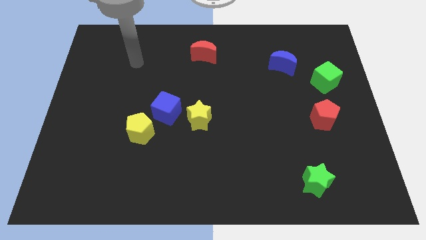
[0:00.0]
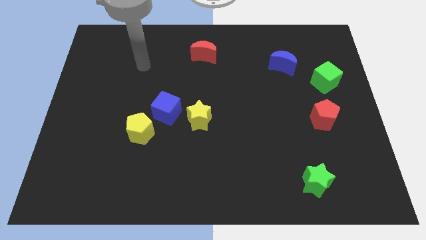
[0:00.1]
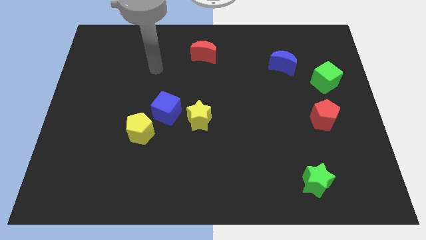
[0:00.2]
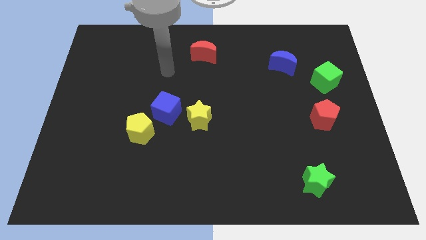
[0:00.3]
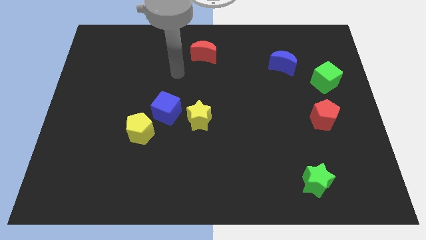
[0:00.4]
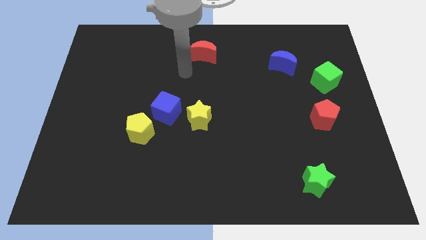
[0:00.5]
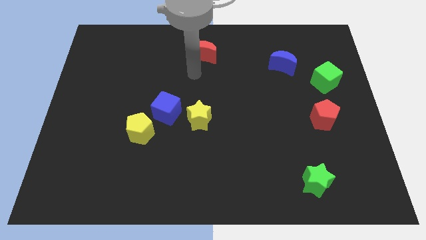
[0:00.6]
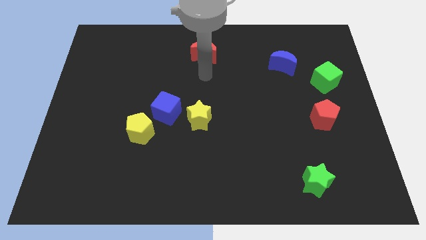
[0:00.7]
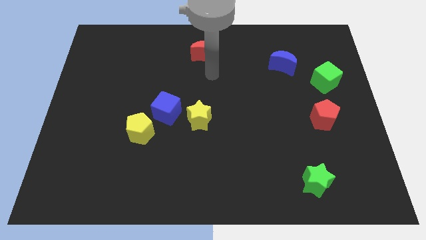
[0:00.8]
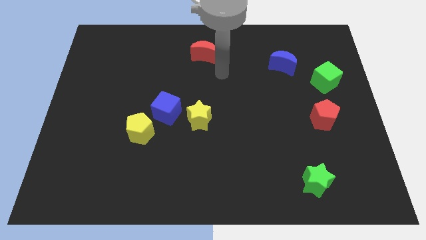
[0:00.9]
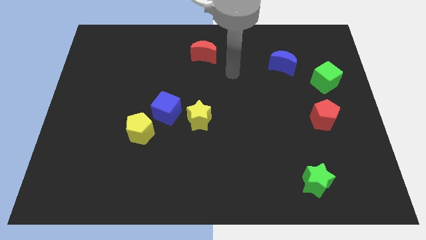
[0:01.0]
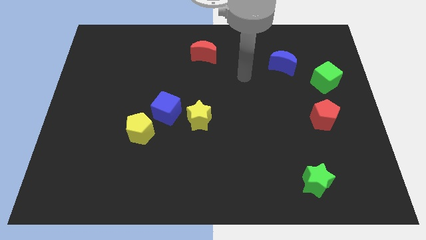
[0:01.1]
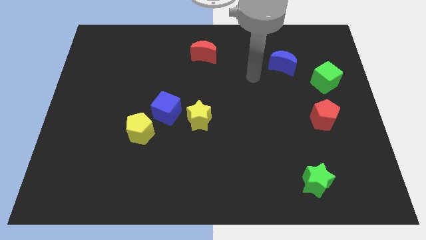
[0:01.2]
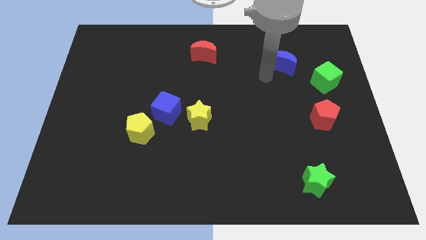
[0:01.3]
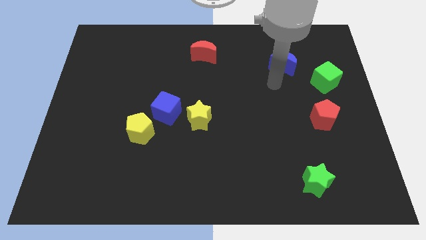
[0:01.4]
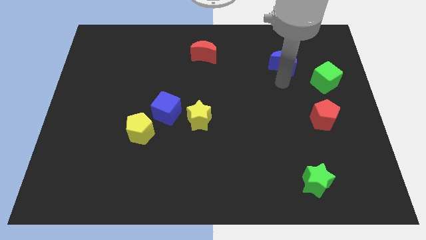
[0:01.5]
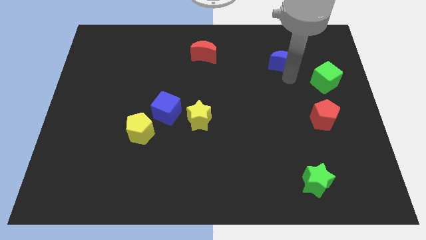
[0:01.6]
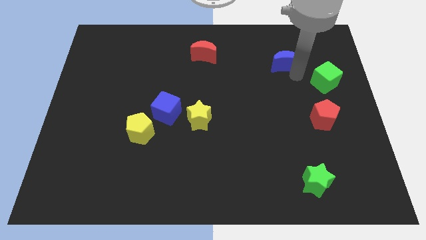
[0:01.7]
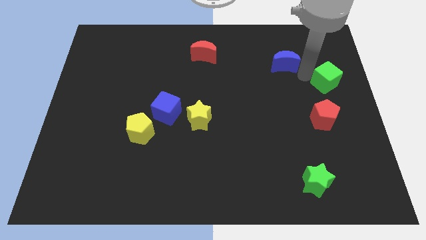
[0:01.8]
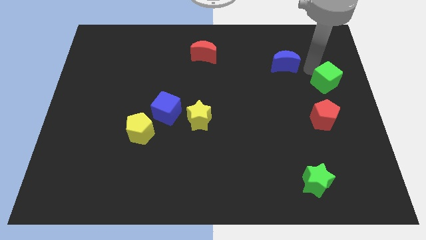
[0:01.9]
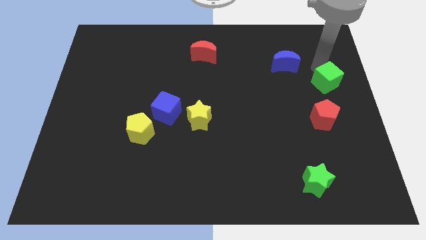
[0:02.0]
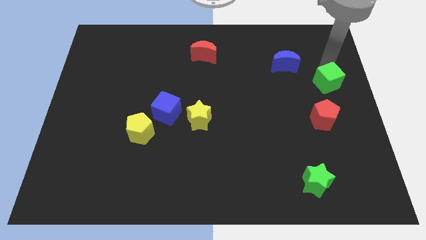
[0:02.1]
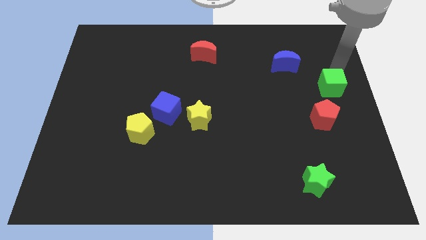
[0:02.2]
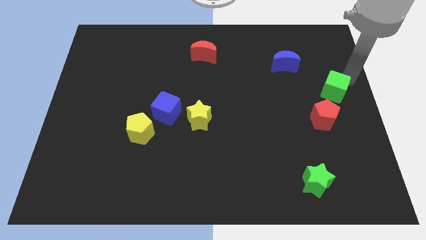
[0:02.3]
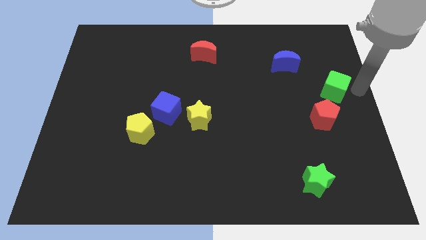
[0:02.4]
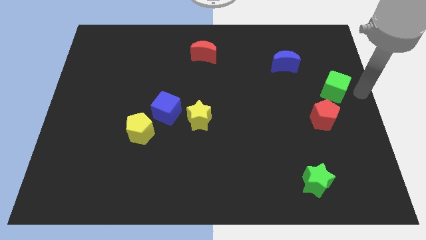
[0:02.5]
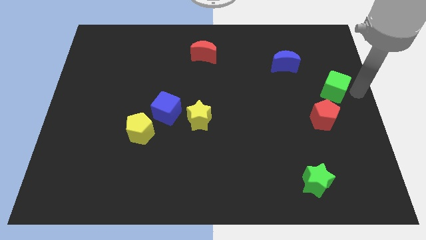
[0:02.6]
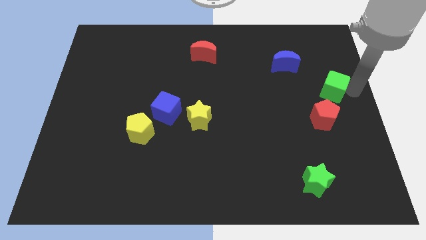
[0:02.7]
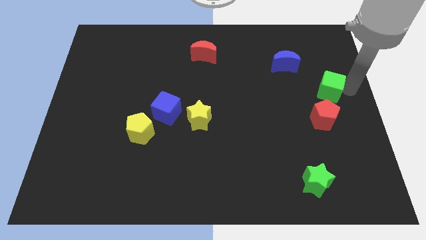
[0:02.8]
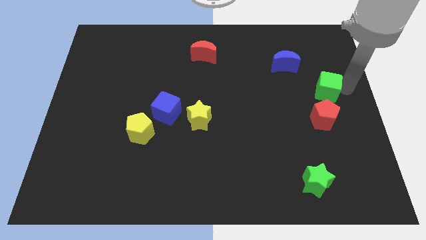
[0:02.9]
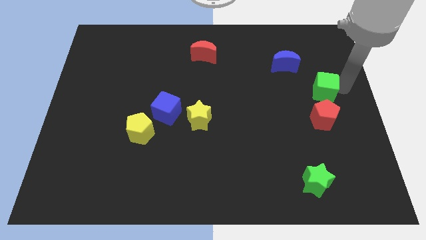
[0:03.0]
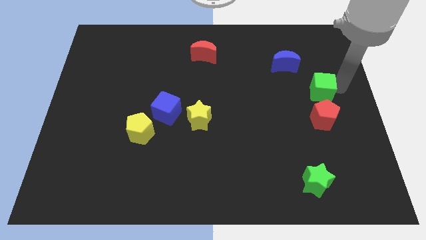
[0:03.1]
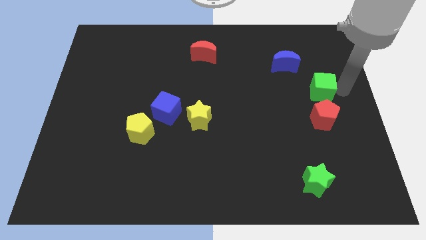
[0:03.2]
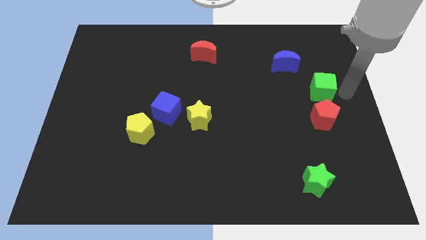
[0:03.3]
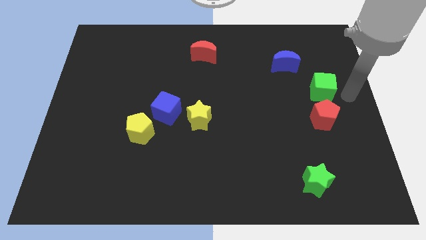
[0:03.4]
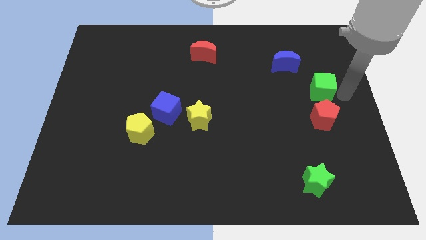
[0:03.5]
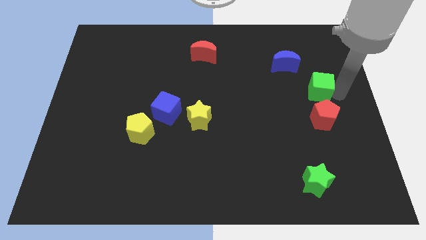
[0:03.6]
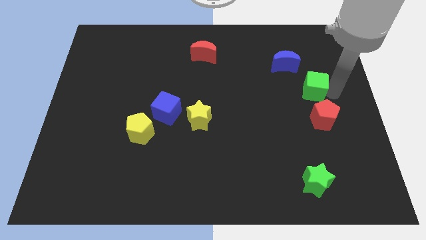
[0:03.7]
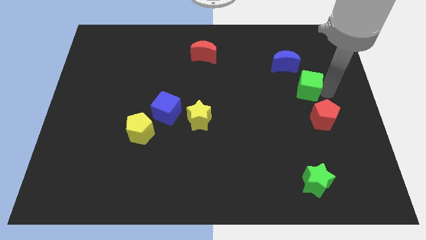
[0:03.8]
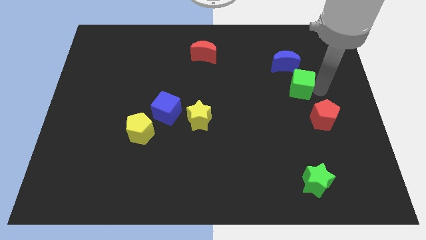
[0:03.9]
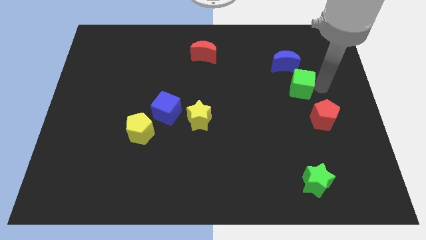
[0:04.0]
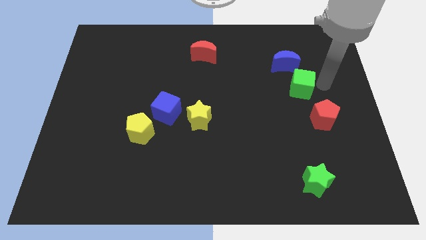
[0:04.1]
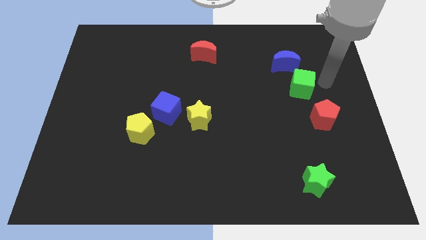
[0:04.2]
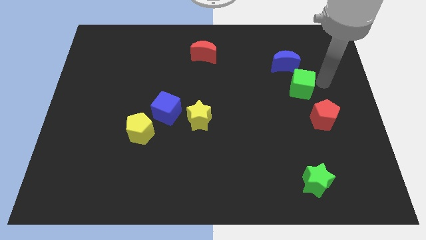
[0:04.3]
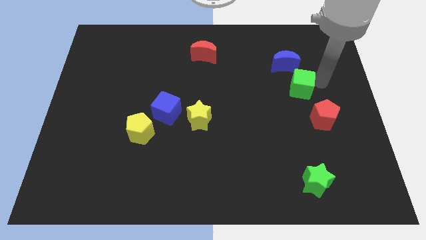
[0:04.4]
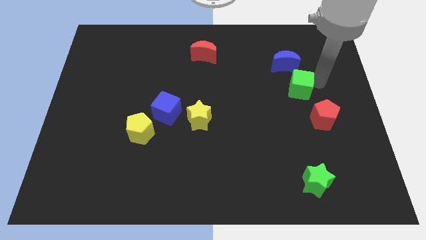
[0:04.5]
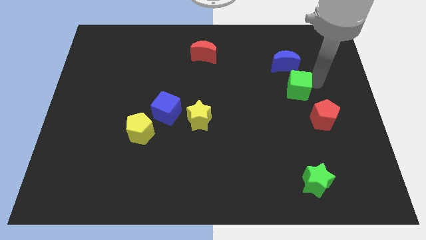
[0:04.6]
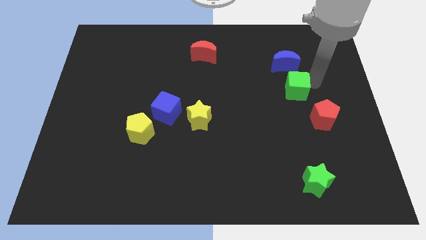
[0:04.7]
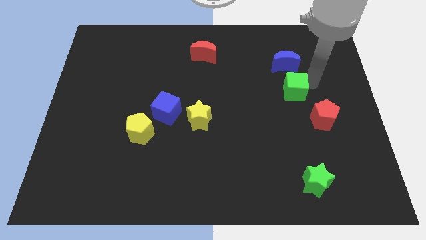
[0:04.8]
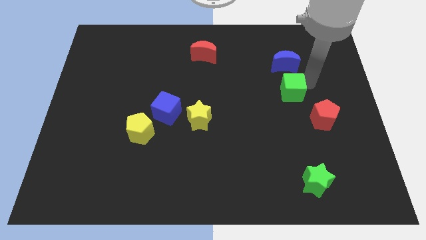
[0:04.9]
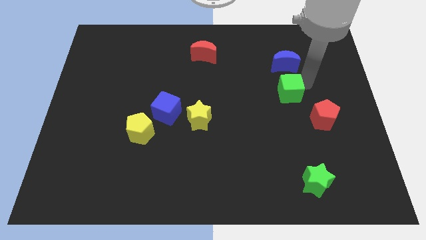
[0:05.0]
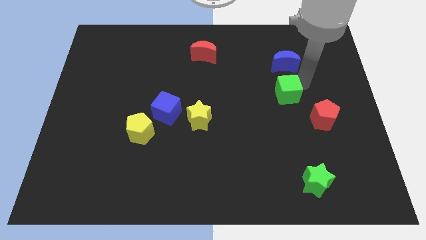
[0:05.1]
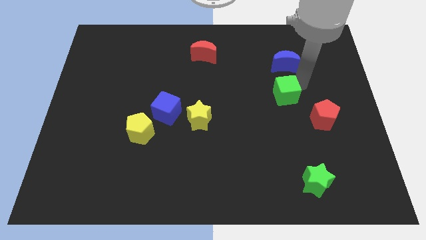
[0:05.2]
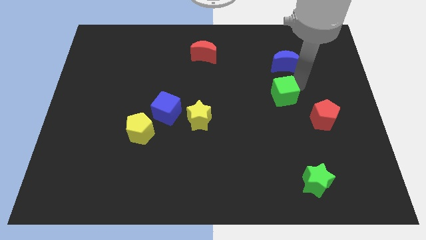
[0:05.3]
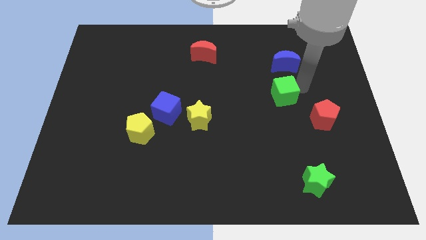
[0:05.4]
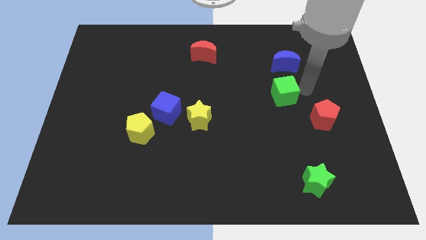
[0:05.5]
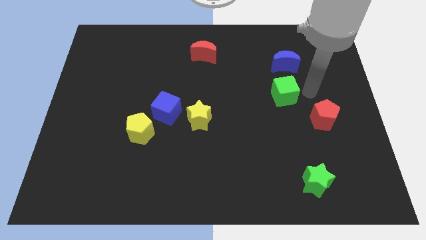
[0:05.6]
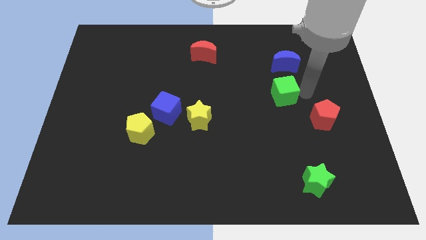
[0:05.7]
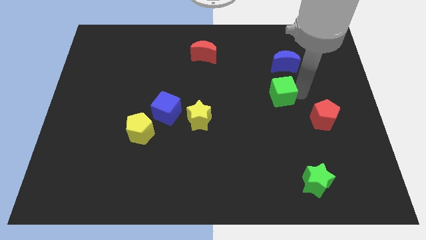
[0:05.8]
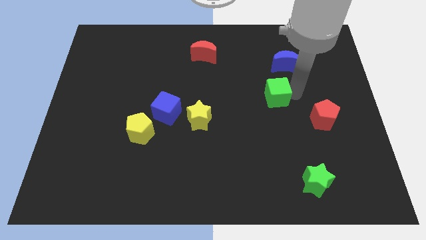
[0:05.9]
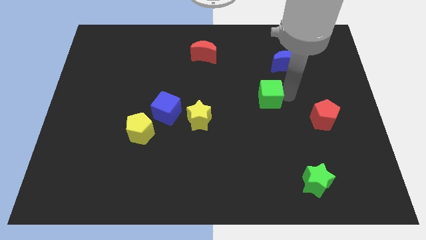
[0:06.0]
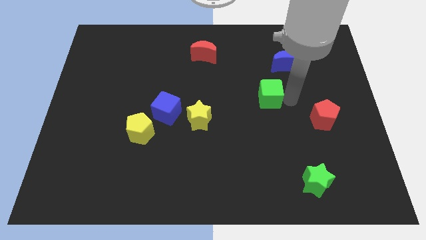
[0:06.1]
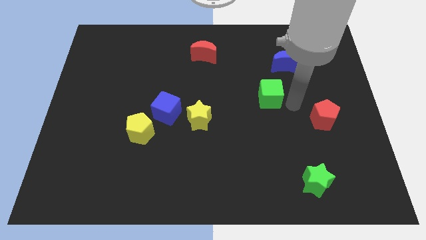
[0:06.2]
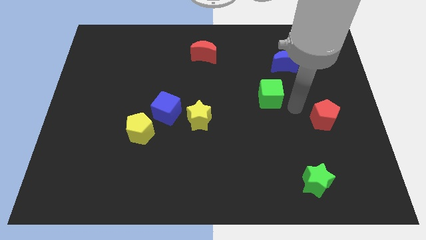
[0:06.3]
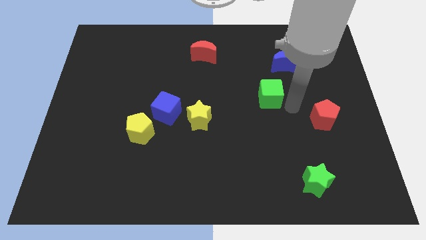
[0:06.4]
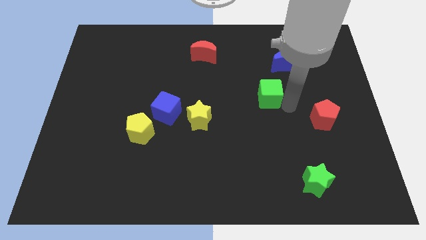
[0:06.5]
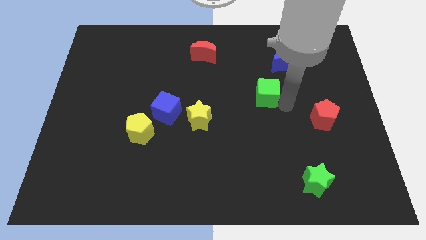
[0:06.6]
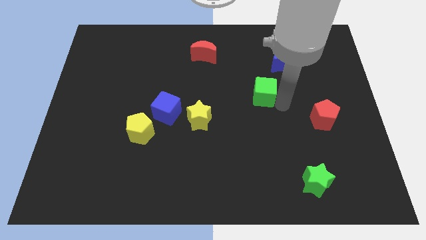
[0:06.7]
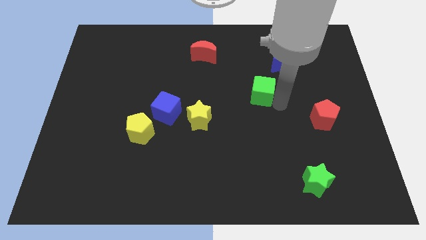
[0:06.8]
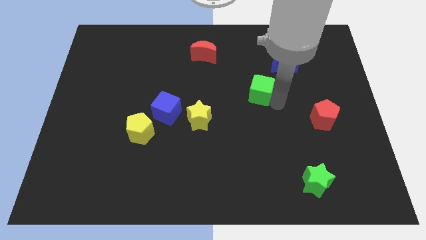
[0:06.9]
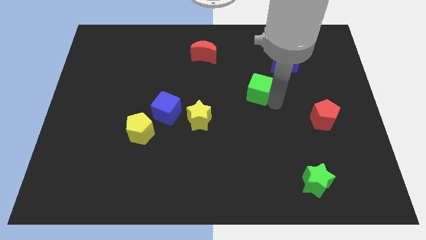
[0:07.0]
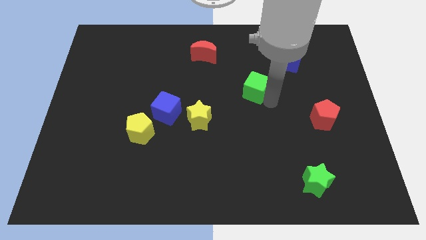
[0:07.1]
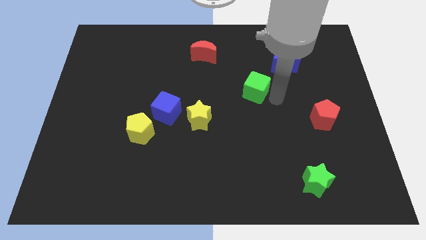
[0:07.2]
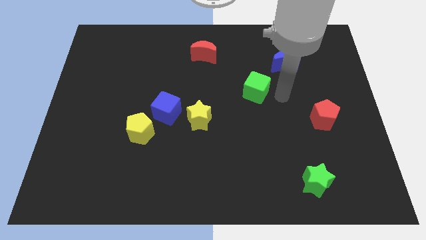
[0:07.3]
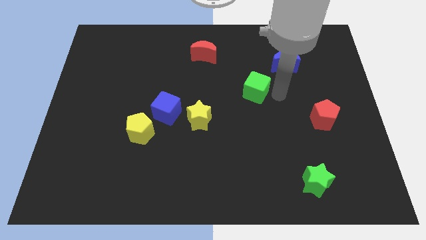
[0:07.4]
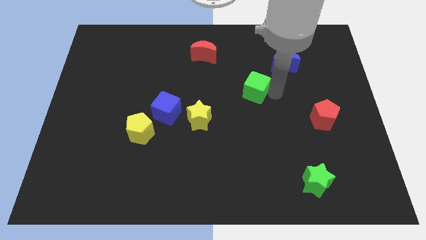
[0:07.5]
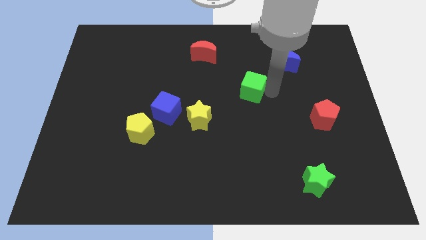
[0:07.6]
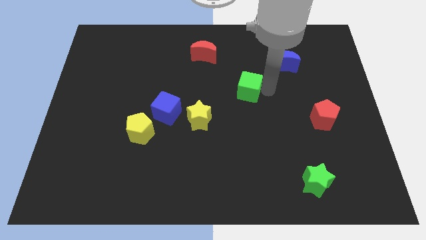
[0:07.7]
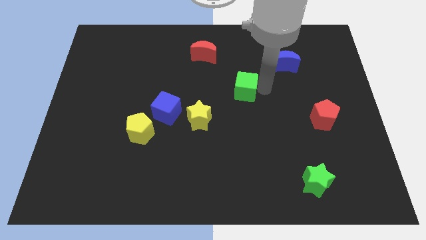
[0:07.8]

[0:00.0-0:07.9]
slide the green cube to the left
